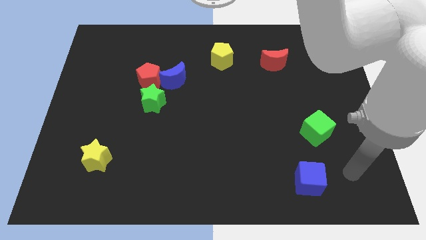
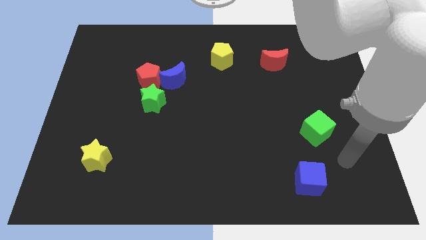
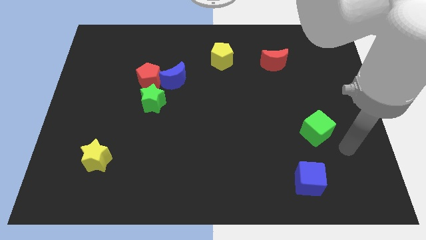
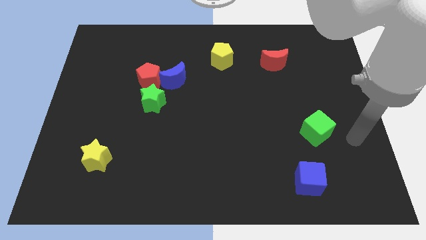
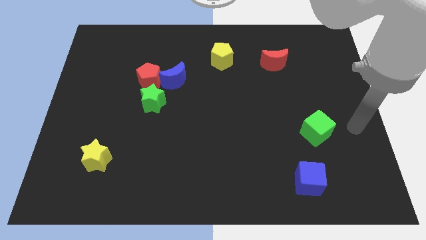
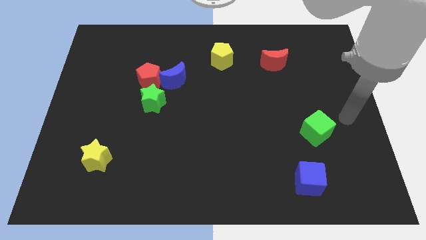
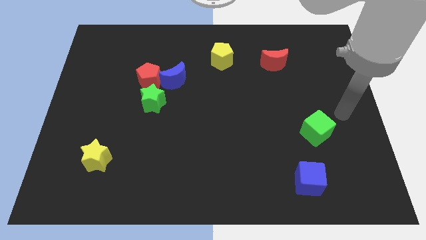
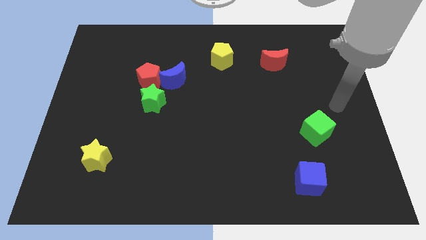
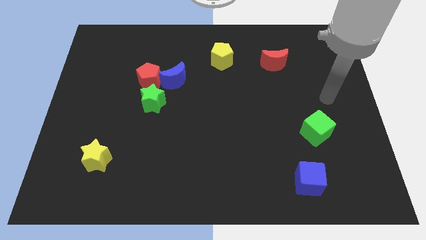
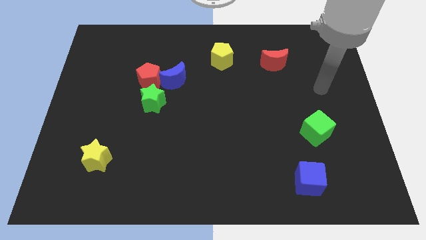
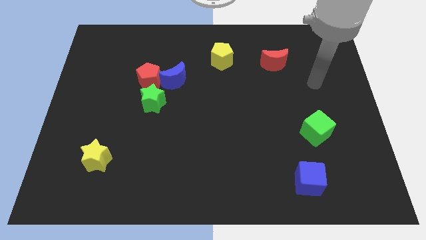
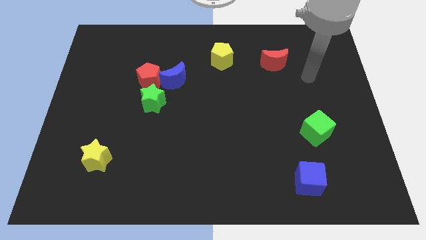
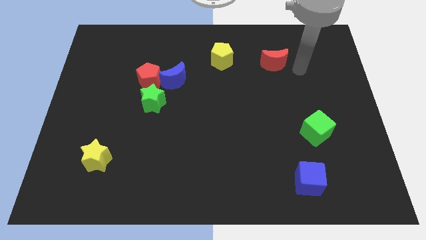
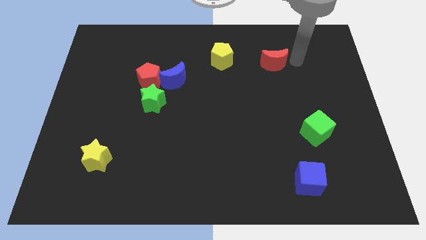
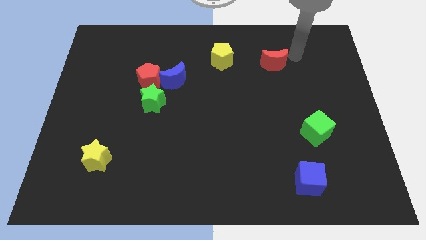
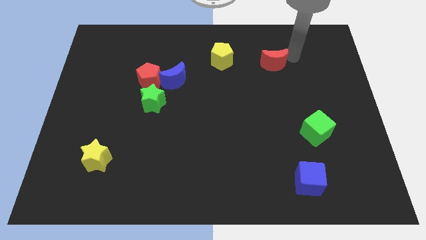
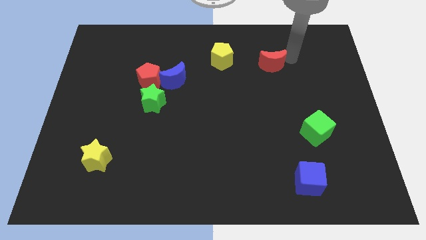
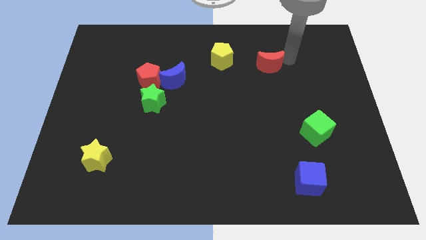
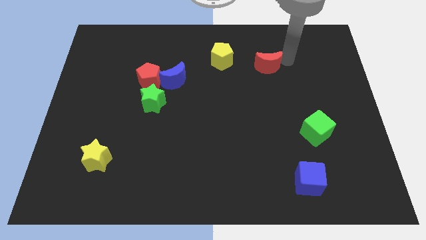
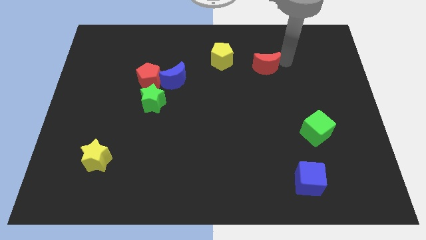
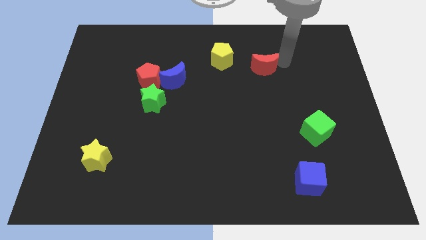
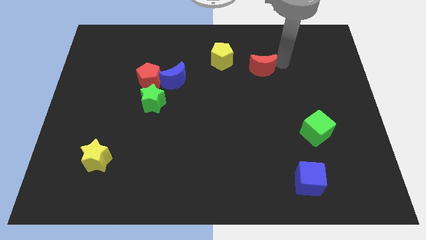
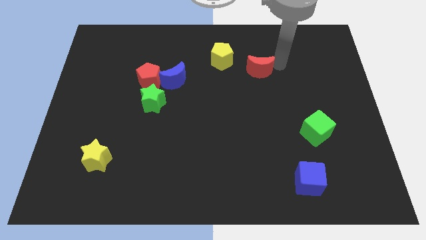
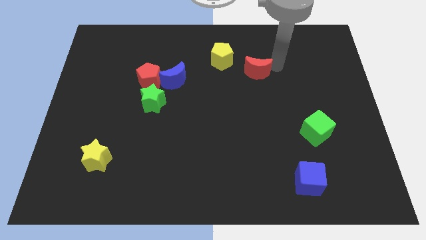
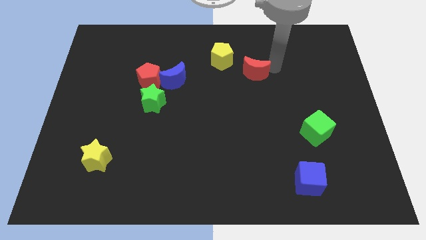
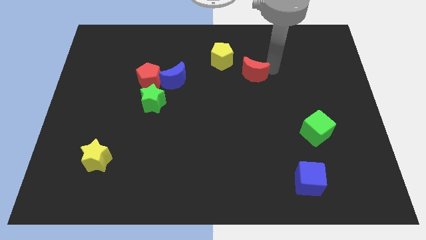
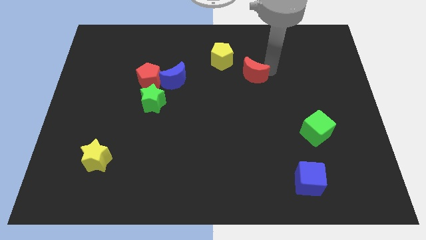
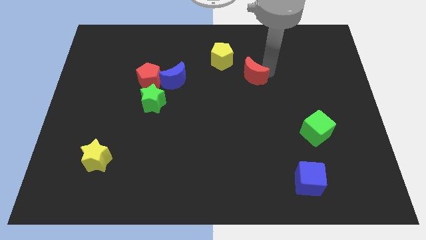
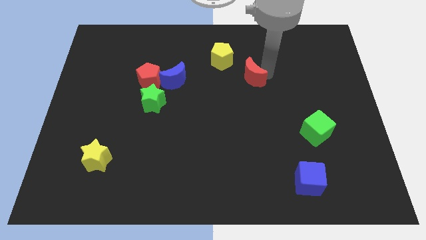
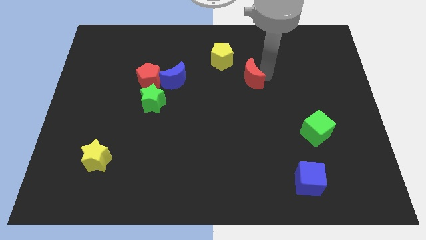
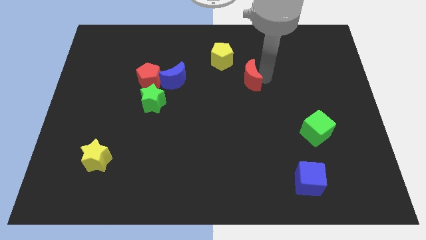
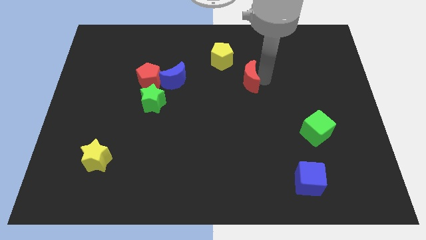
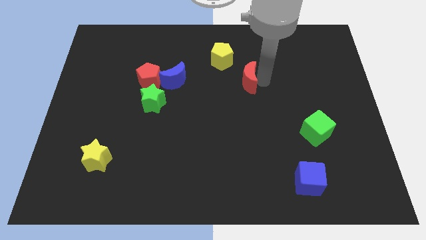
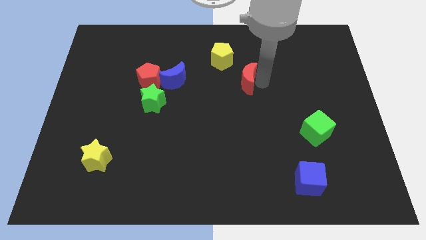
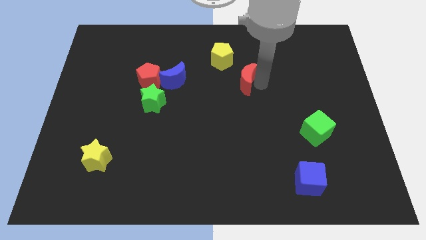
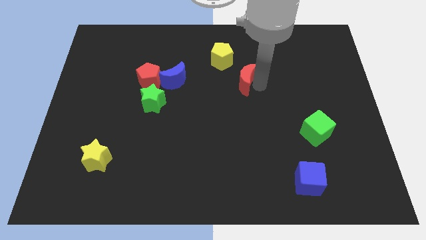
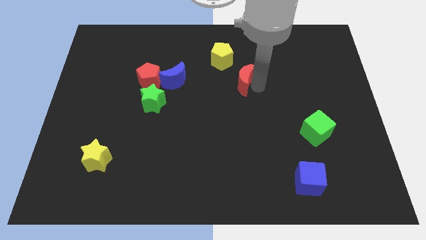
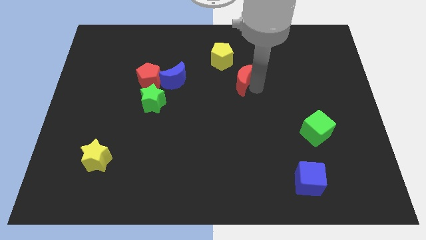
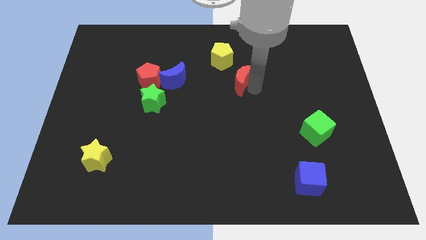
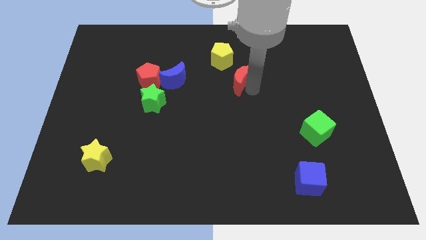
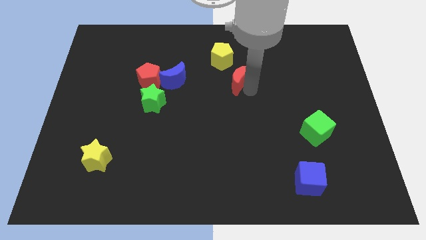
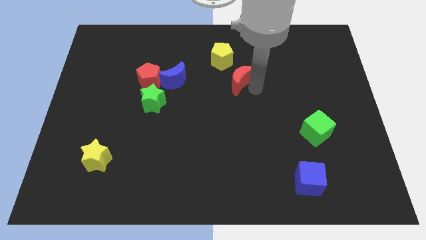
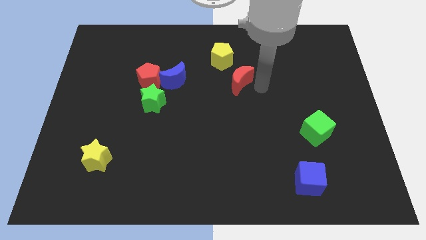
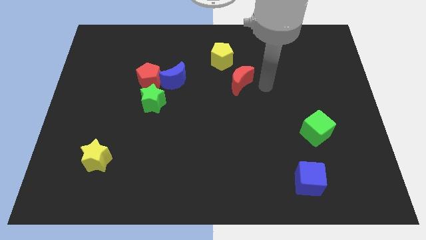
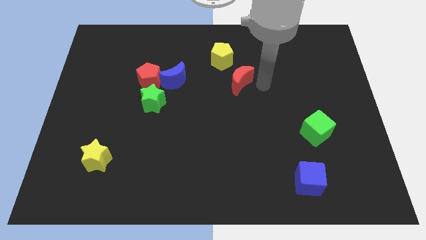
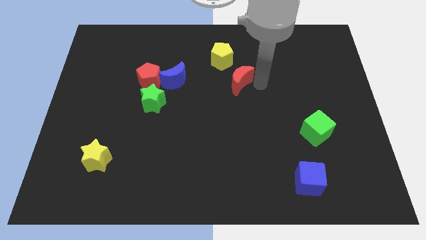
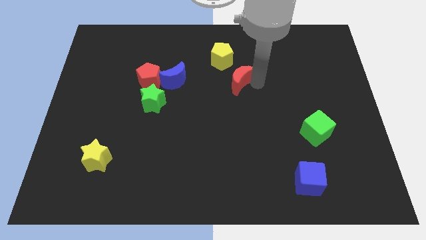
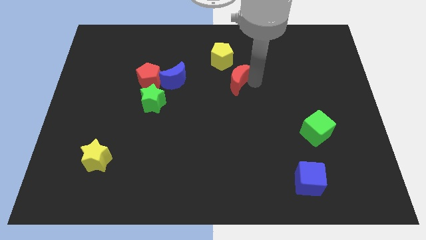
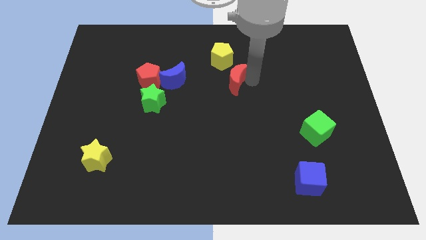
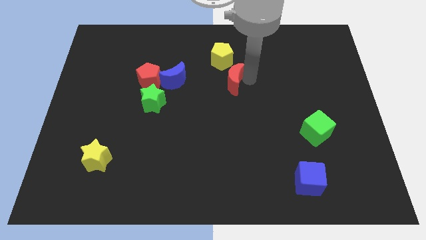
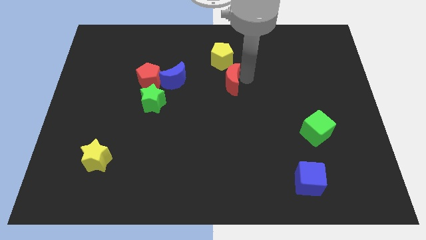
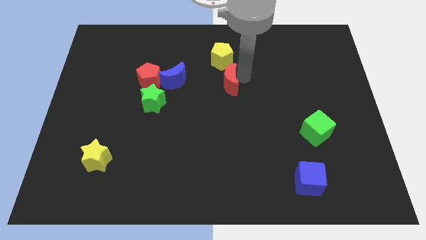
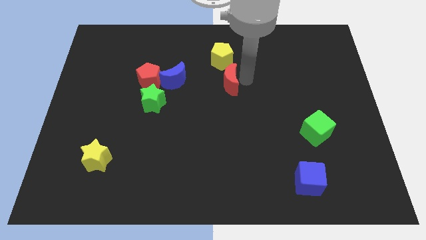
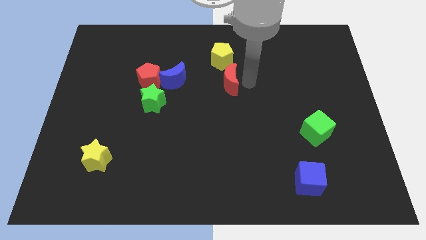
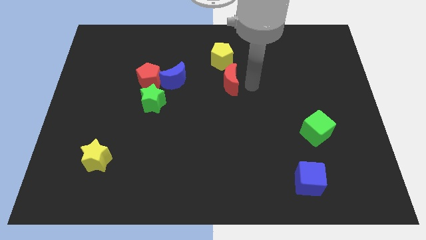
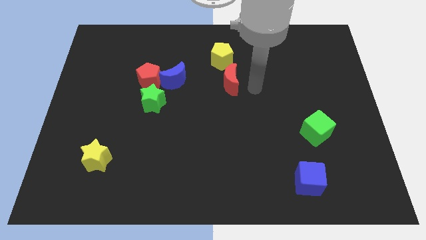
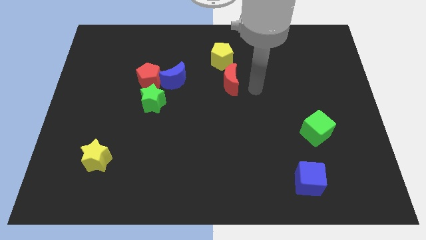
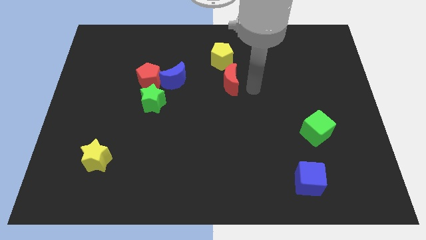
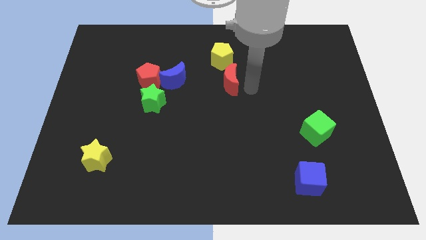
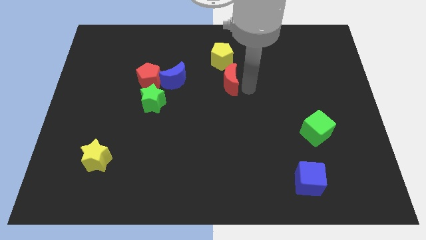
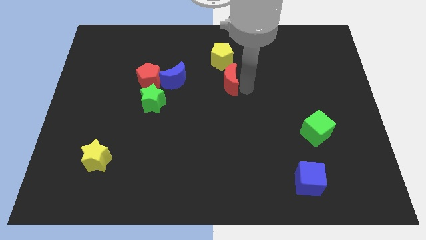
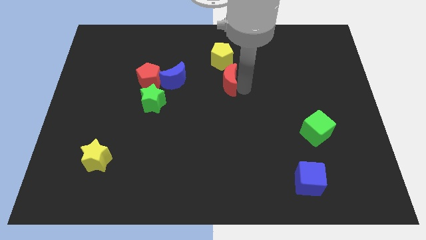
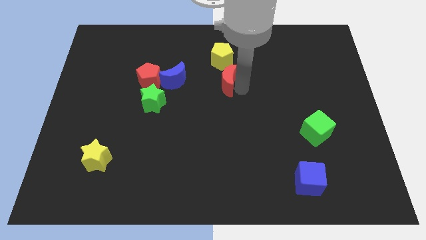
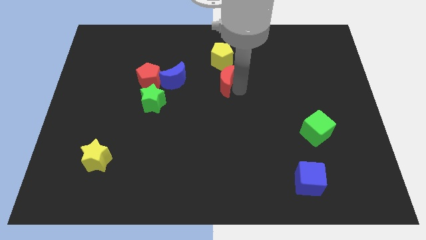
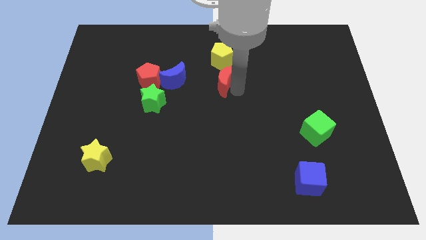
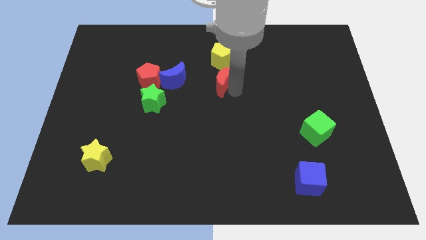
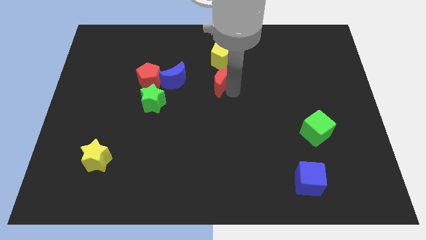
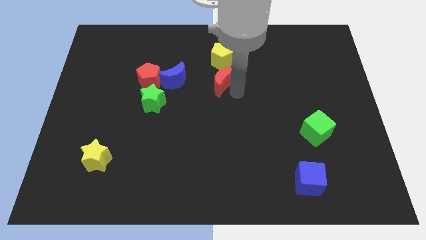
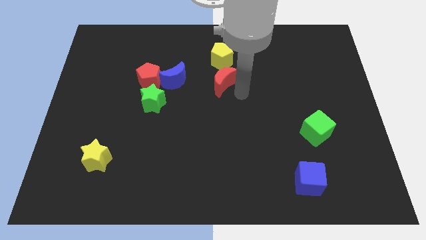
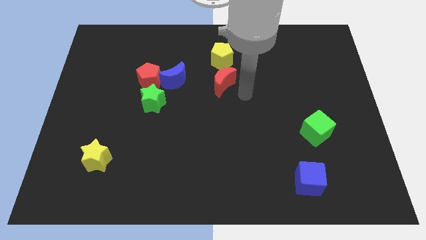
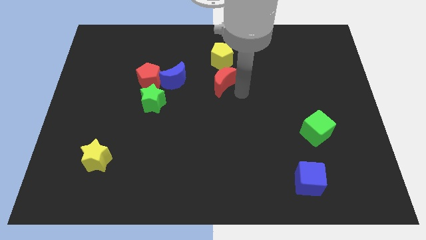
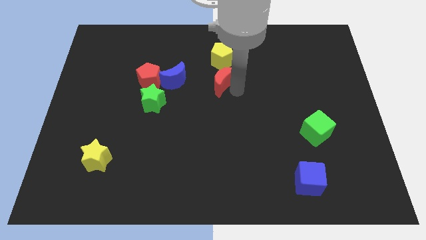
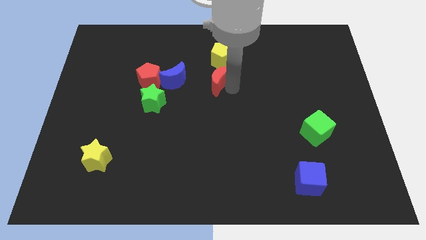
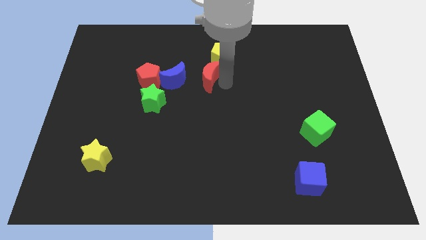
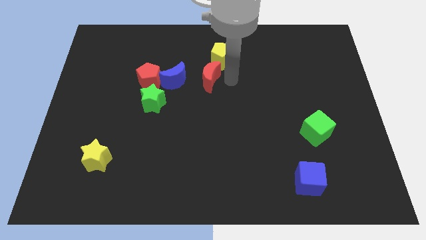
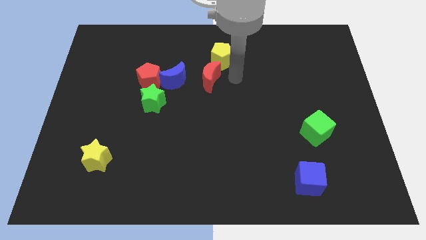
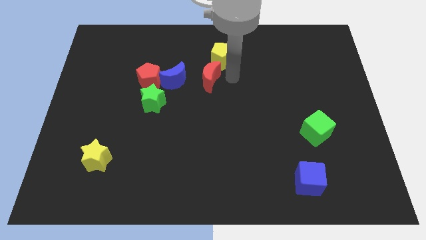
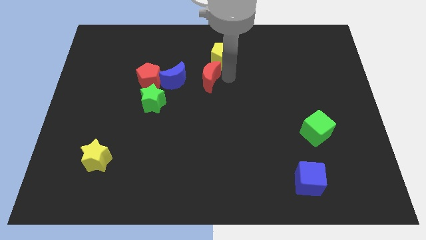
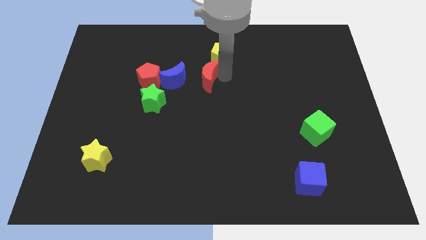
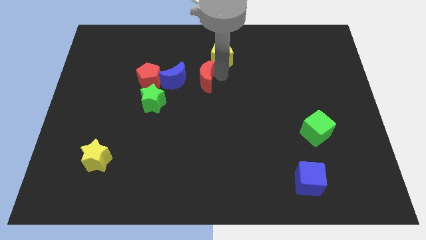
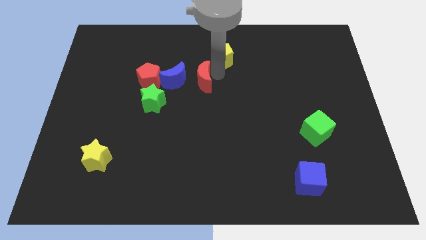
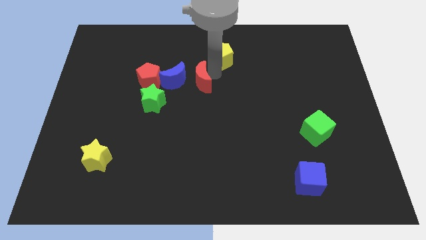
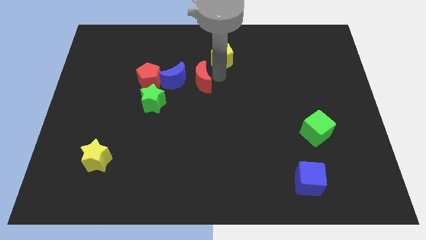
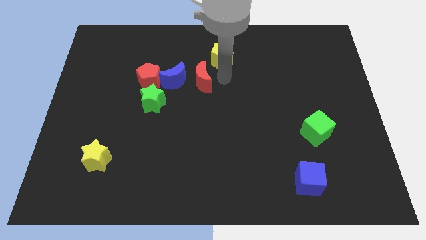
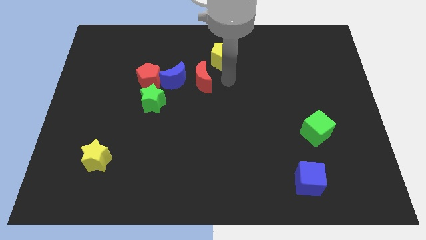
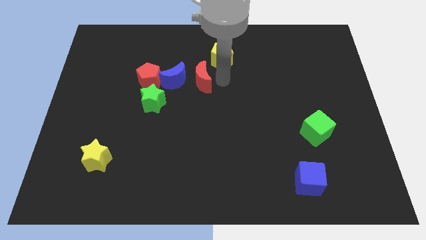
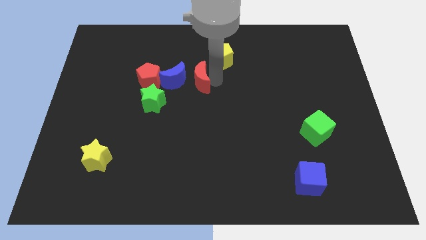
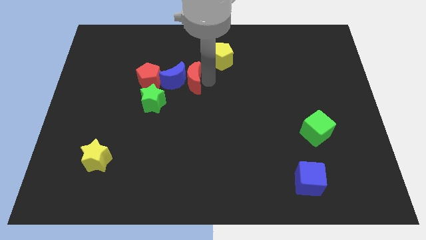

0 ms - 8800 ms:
put the red moon close to the blue moon
